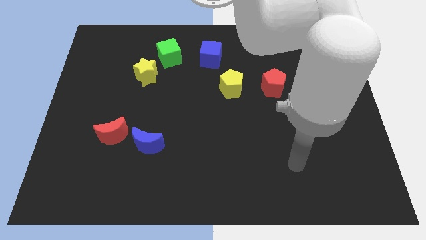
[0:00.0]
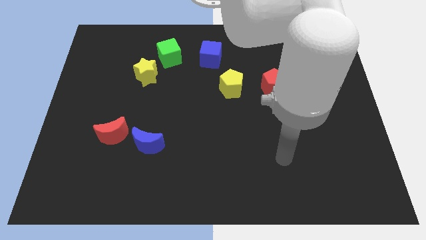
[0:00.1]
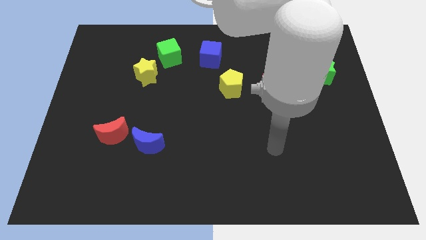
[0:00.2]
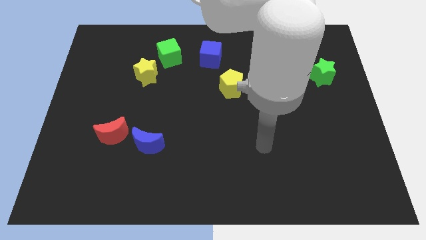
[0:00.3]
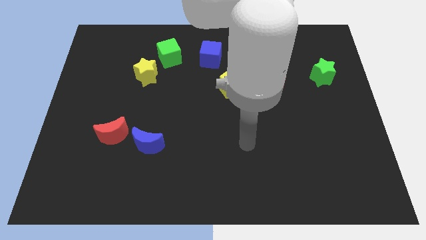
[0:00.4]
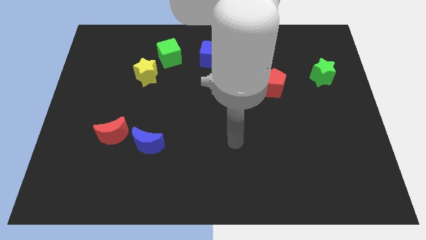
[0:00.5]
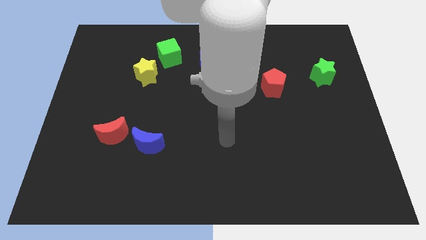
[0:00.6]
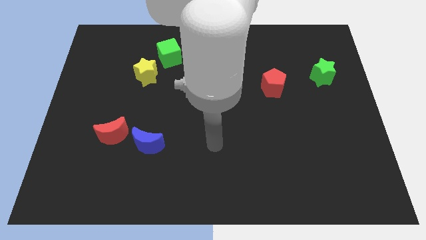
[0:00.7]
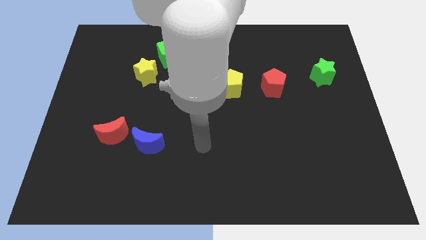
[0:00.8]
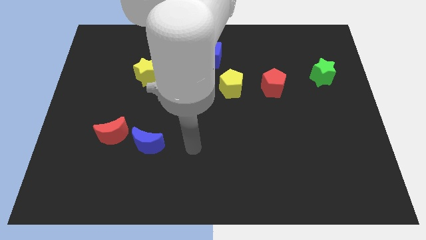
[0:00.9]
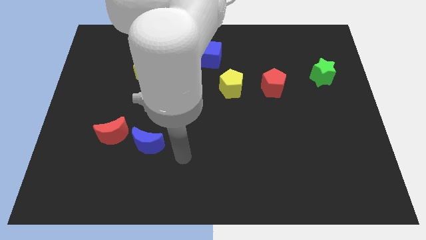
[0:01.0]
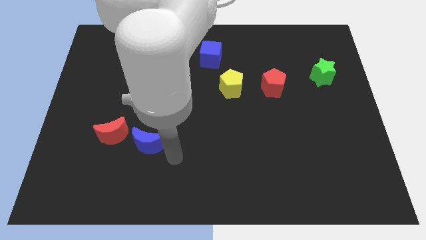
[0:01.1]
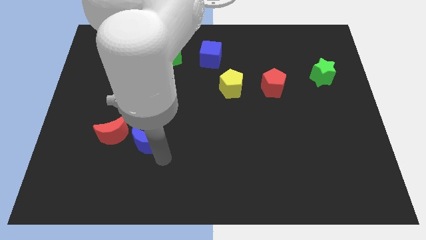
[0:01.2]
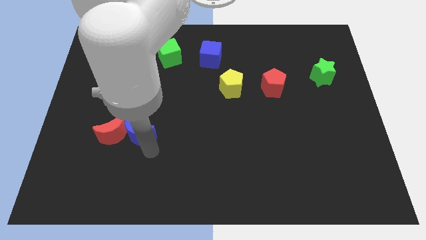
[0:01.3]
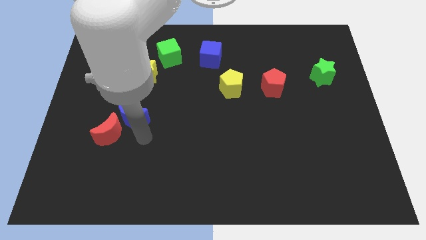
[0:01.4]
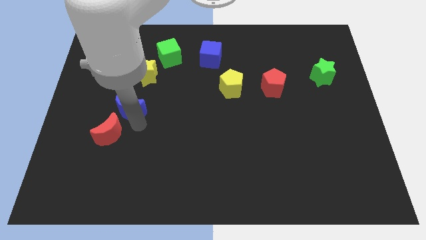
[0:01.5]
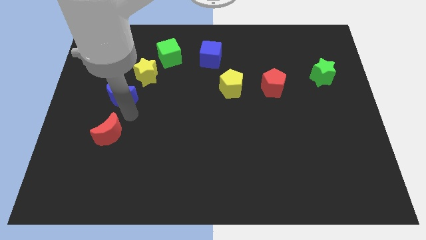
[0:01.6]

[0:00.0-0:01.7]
separate the red moon from the blue moon

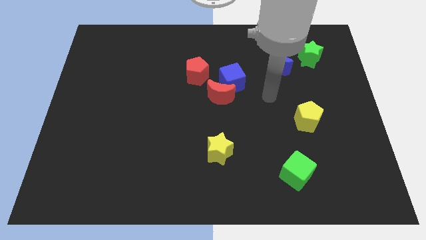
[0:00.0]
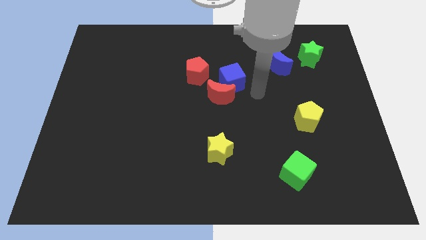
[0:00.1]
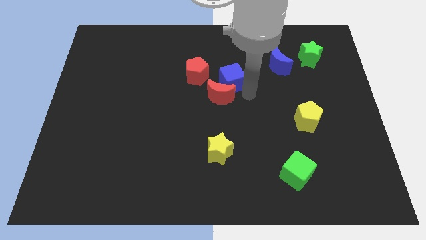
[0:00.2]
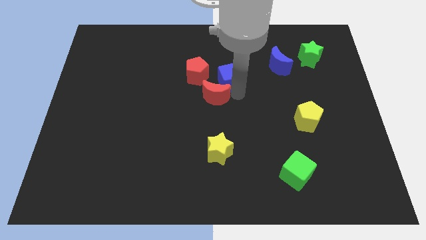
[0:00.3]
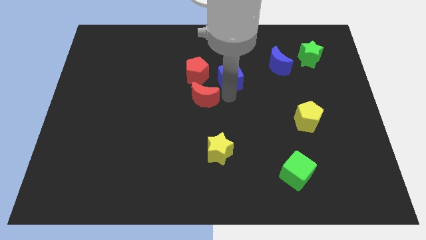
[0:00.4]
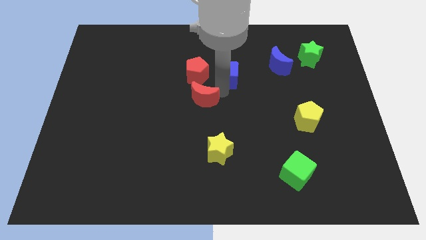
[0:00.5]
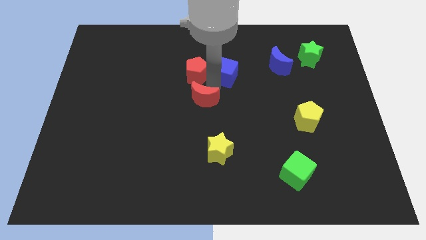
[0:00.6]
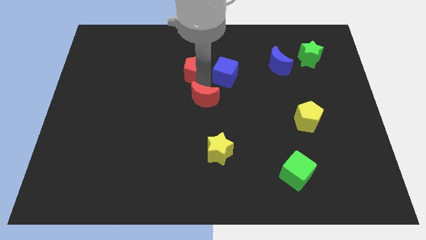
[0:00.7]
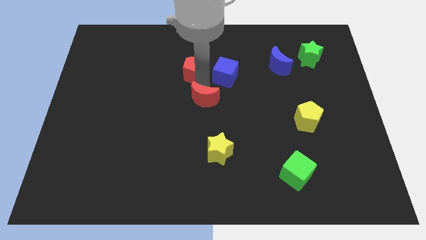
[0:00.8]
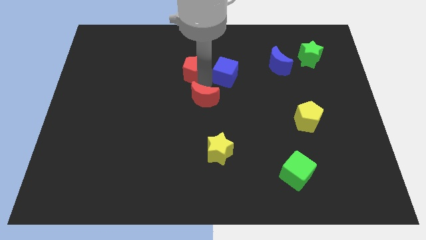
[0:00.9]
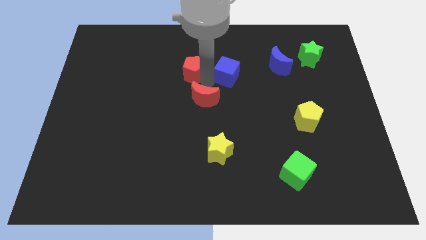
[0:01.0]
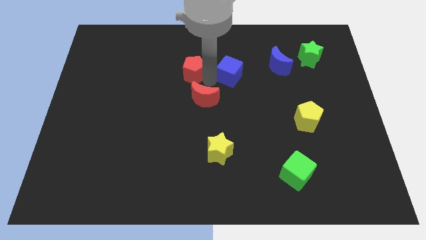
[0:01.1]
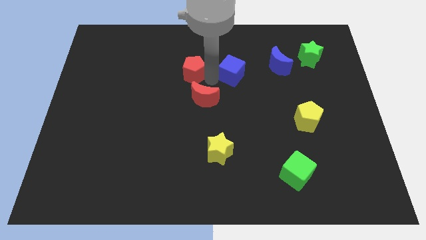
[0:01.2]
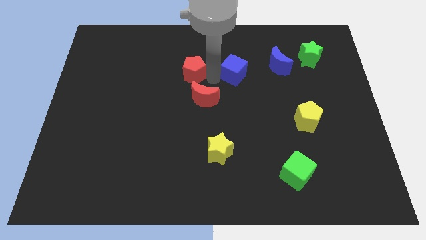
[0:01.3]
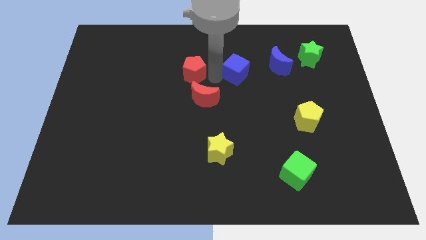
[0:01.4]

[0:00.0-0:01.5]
pull the blue cube apart from the red moon and red pentagon

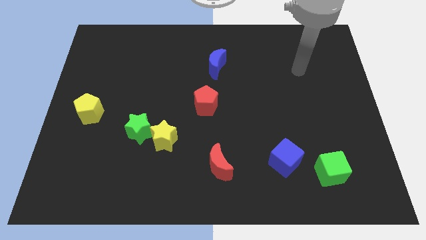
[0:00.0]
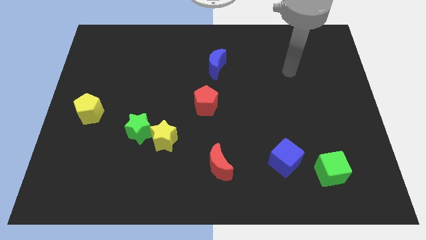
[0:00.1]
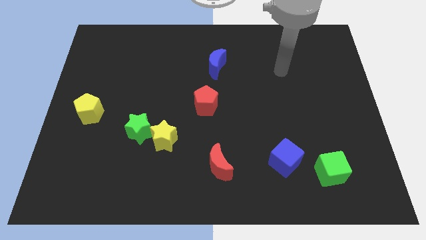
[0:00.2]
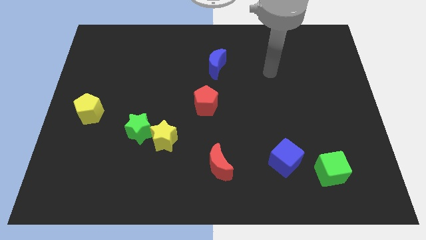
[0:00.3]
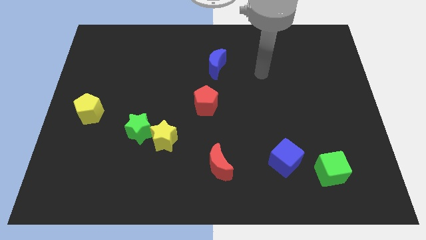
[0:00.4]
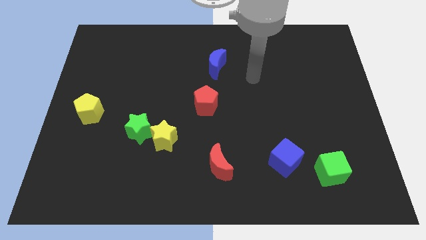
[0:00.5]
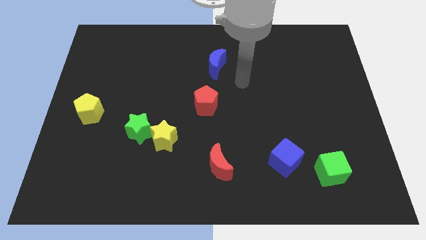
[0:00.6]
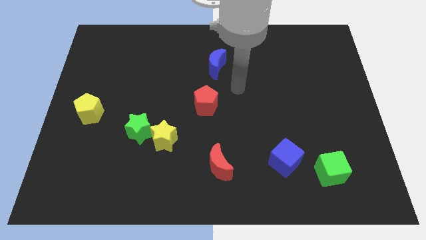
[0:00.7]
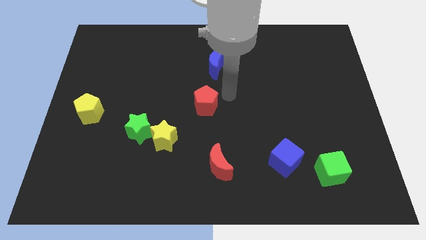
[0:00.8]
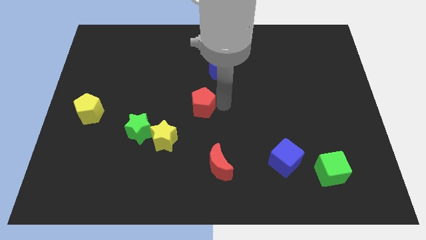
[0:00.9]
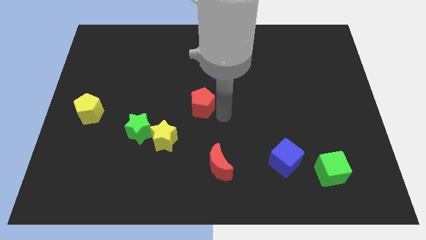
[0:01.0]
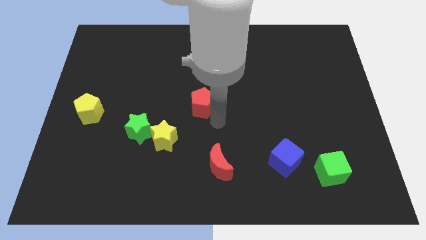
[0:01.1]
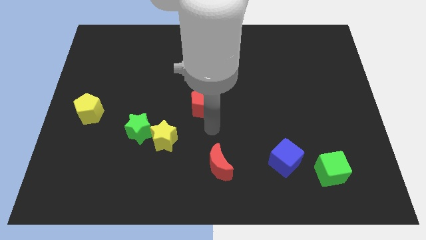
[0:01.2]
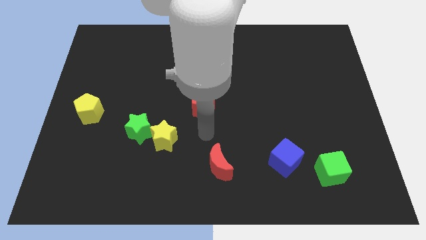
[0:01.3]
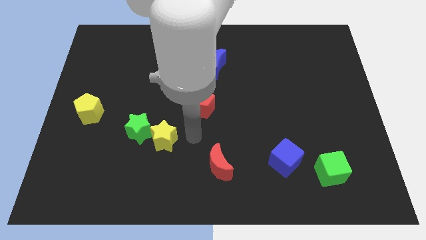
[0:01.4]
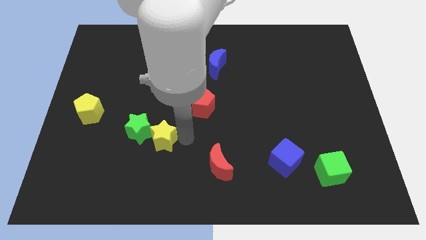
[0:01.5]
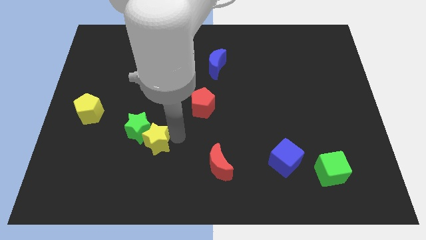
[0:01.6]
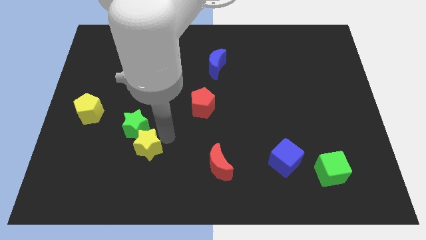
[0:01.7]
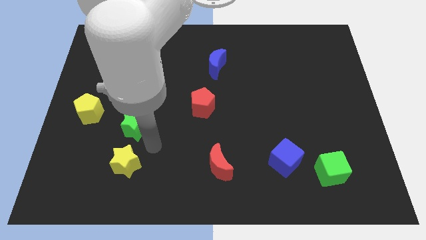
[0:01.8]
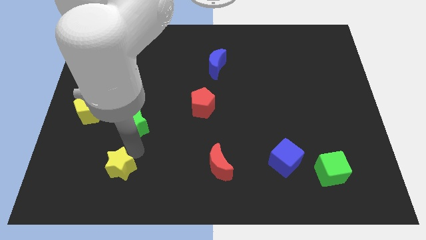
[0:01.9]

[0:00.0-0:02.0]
pull the green star apart from the yellow star

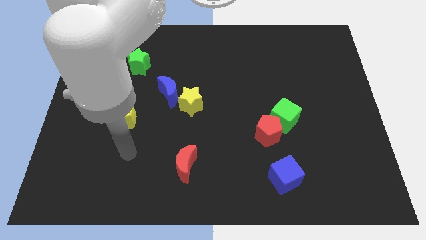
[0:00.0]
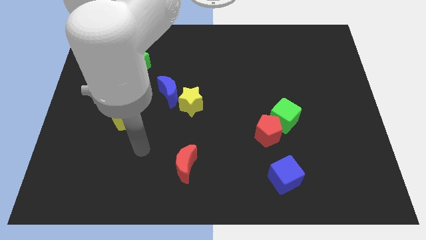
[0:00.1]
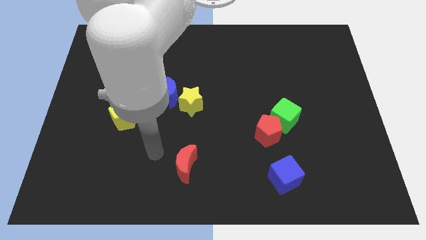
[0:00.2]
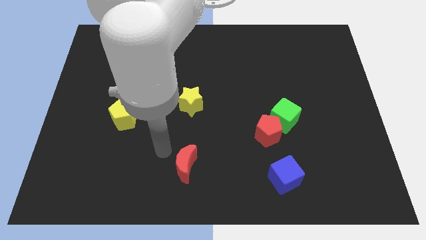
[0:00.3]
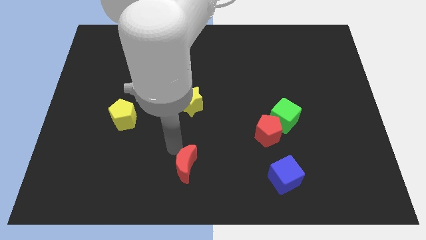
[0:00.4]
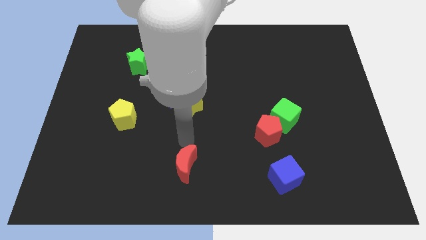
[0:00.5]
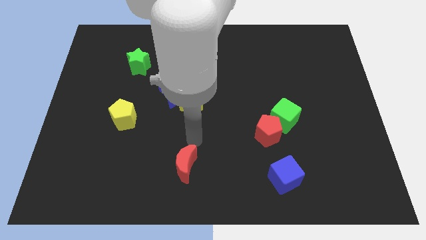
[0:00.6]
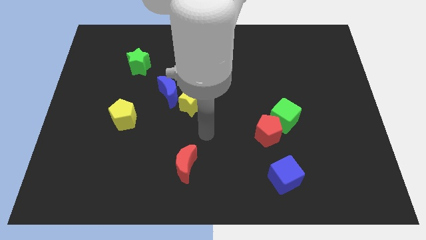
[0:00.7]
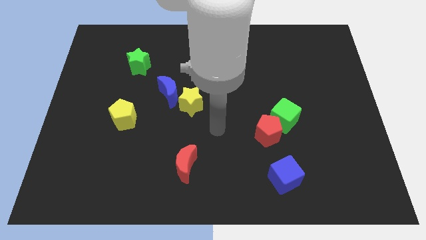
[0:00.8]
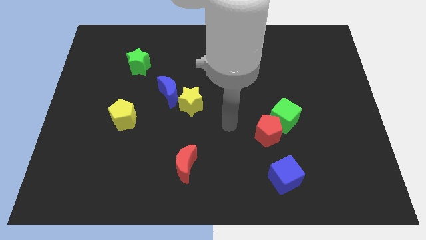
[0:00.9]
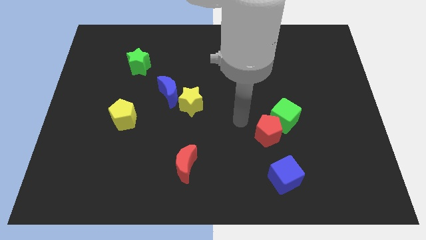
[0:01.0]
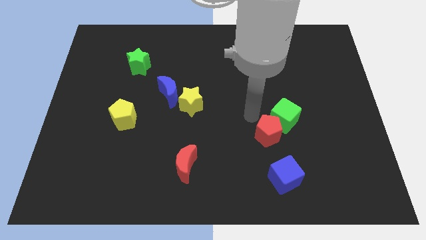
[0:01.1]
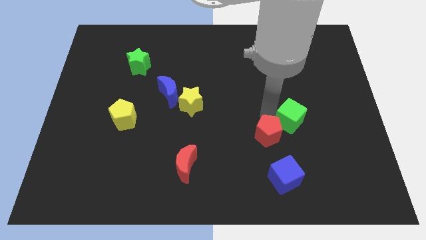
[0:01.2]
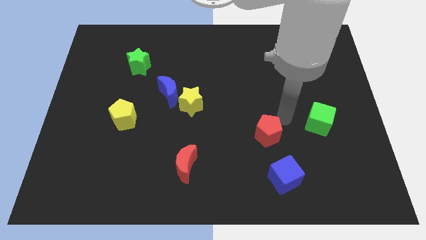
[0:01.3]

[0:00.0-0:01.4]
pull the red pentagon apart from the green cube

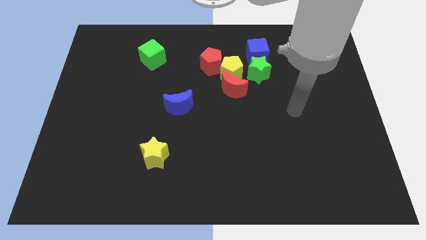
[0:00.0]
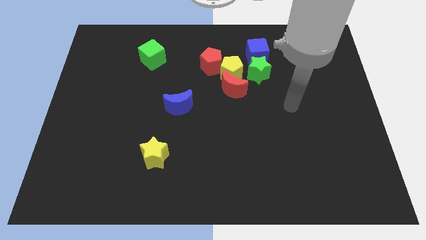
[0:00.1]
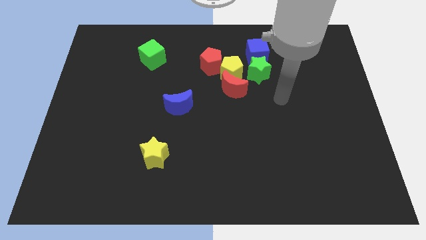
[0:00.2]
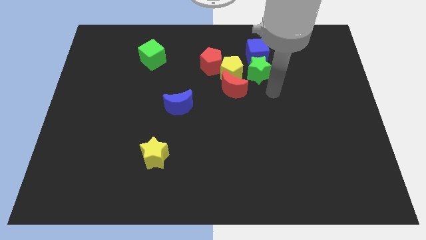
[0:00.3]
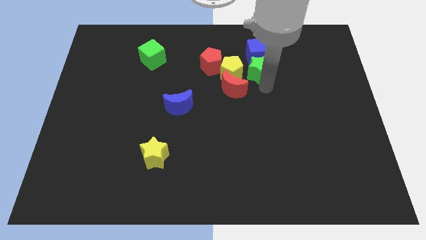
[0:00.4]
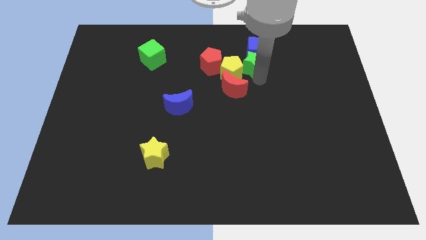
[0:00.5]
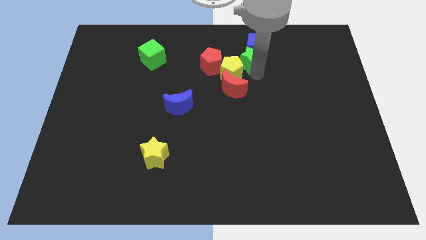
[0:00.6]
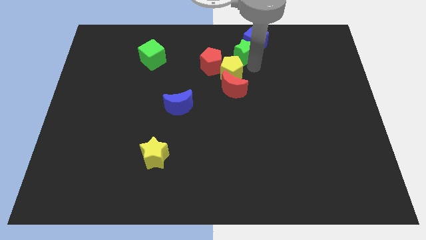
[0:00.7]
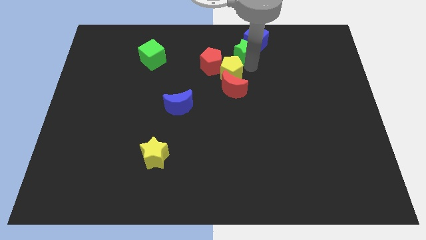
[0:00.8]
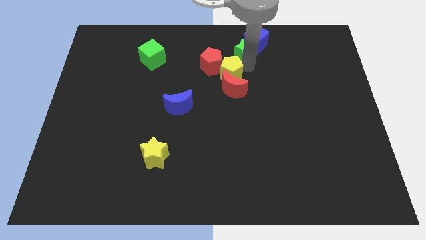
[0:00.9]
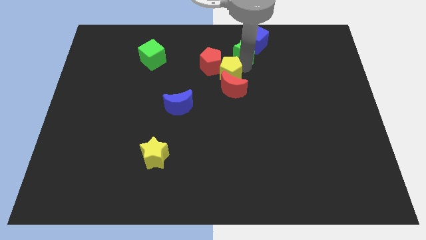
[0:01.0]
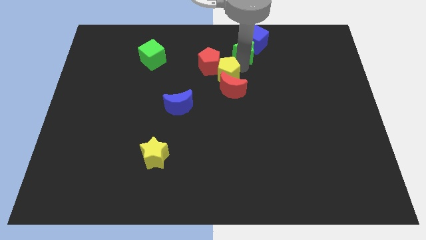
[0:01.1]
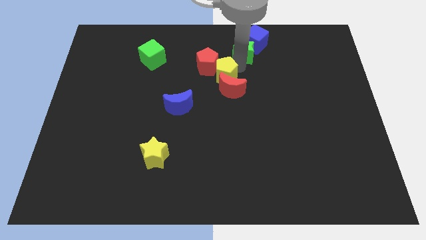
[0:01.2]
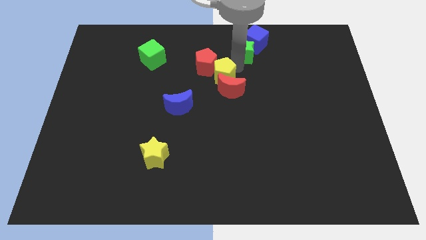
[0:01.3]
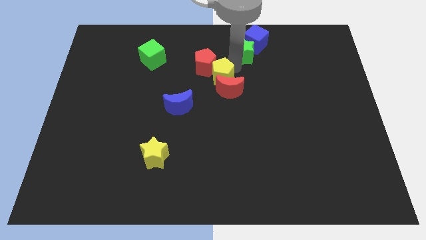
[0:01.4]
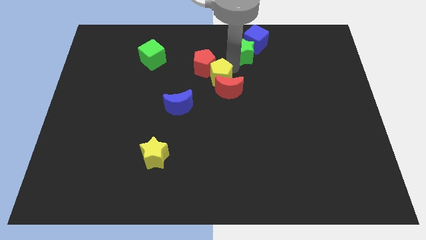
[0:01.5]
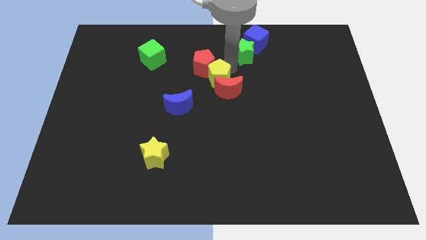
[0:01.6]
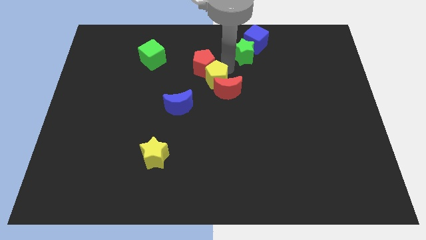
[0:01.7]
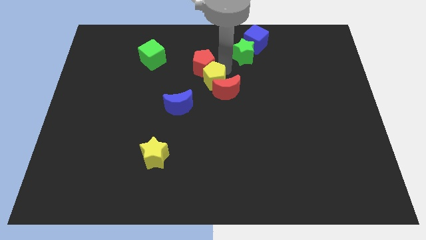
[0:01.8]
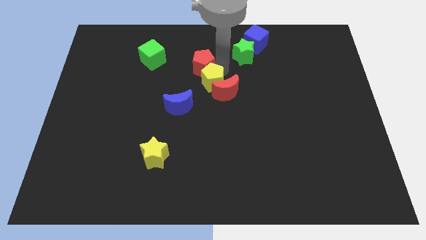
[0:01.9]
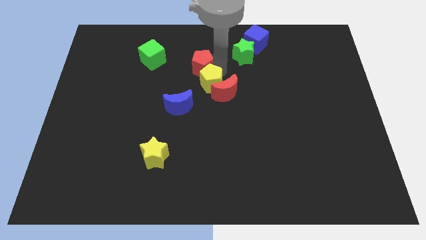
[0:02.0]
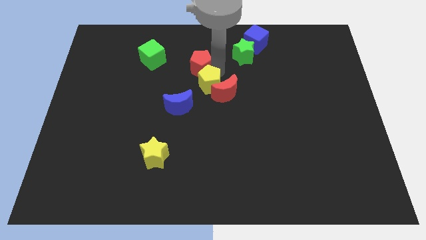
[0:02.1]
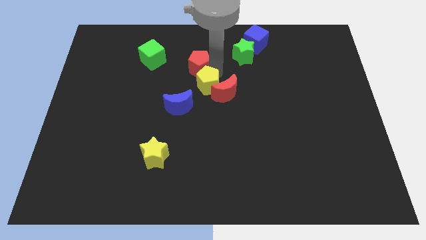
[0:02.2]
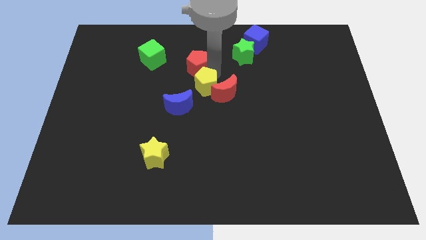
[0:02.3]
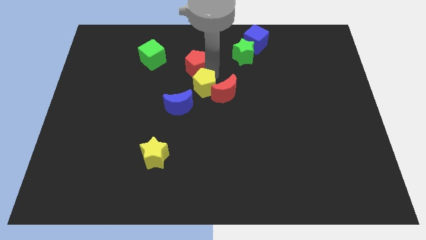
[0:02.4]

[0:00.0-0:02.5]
move the yellow pentagon away from the group
